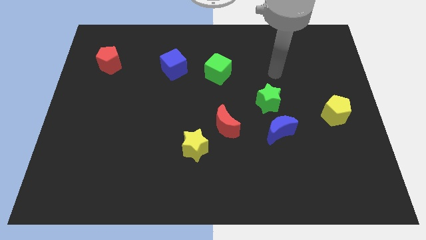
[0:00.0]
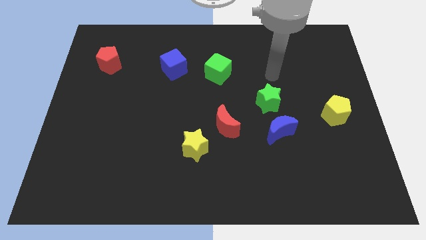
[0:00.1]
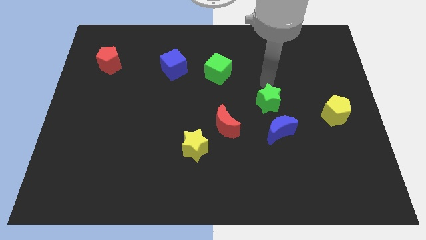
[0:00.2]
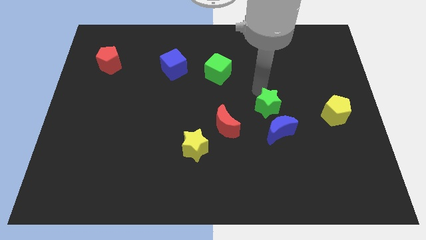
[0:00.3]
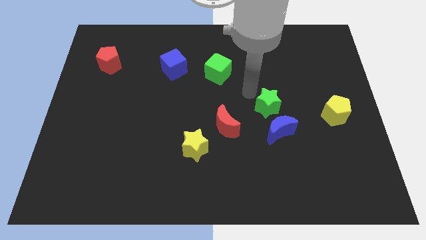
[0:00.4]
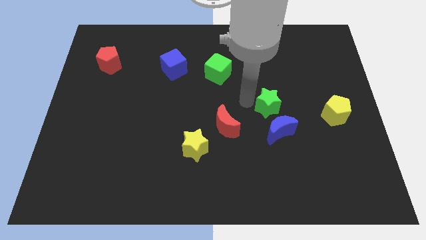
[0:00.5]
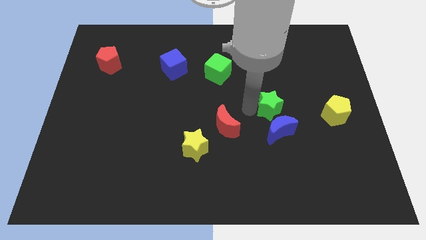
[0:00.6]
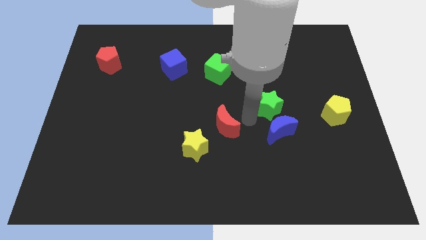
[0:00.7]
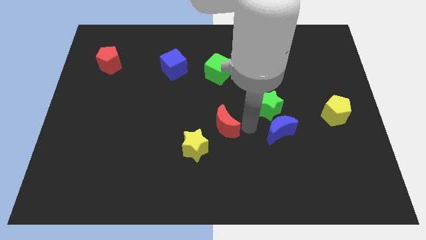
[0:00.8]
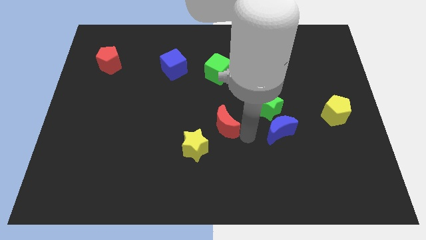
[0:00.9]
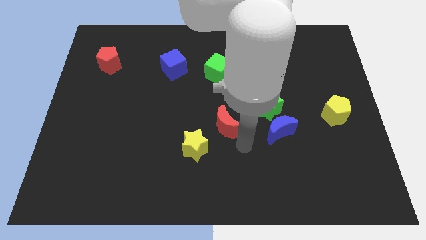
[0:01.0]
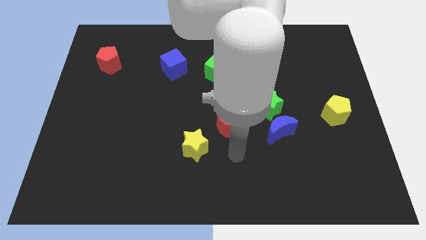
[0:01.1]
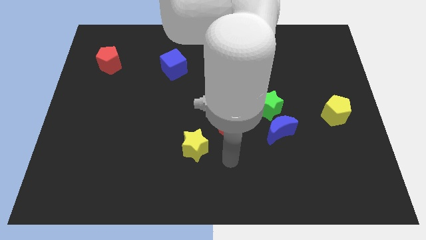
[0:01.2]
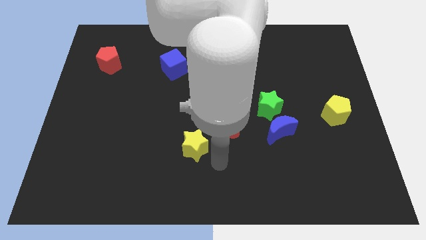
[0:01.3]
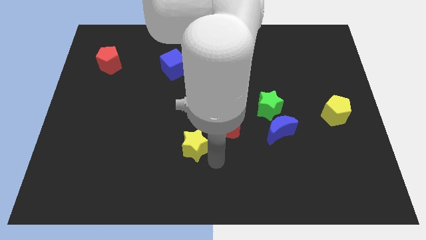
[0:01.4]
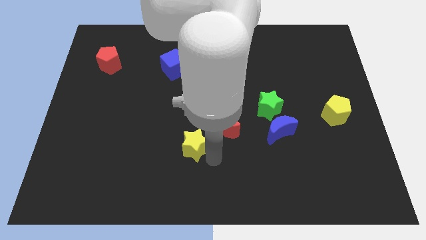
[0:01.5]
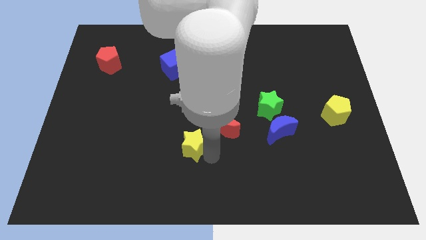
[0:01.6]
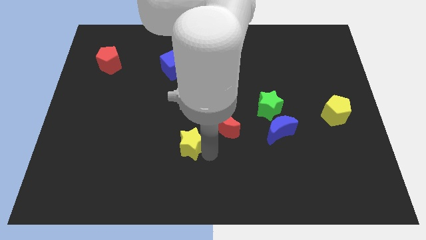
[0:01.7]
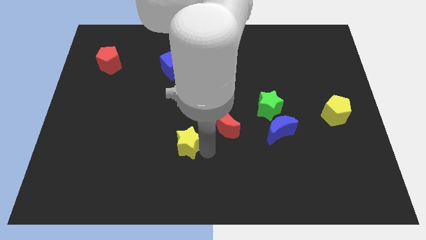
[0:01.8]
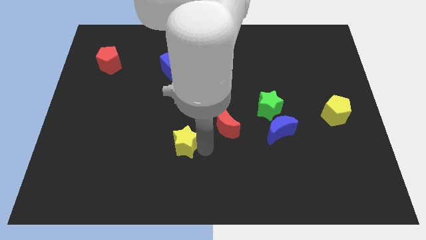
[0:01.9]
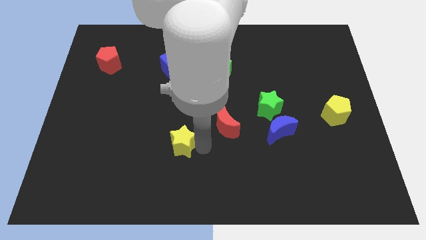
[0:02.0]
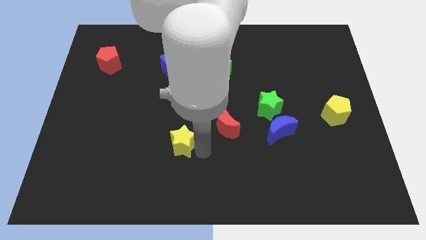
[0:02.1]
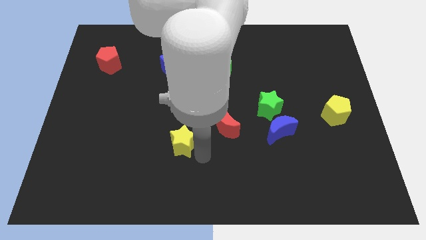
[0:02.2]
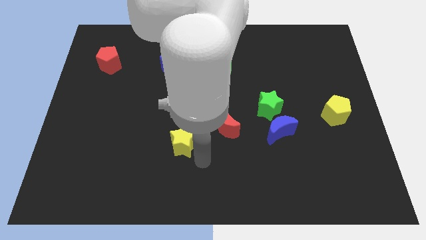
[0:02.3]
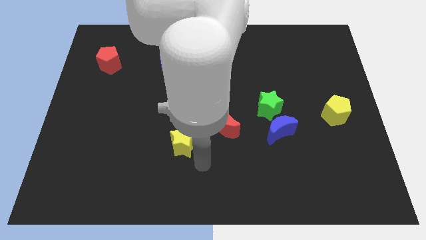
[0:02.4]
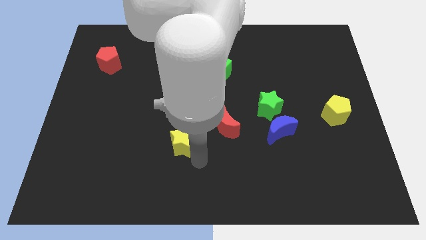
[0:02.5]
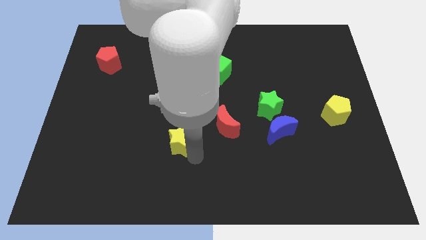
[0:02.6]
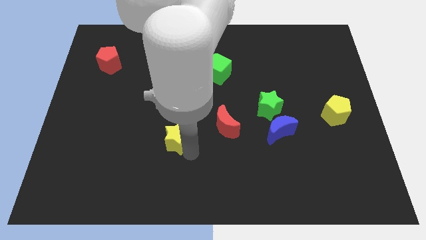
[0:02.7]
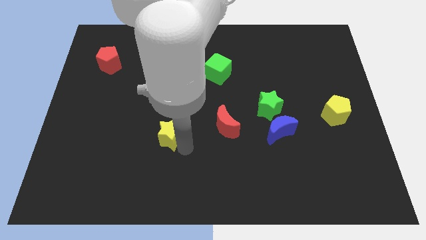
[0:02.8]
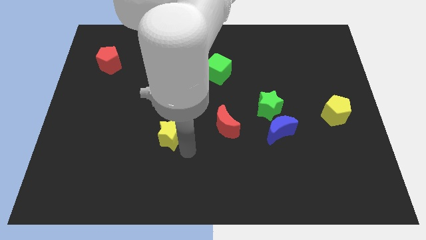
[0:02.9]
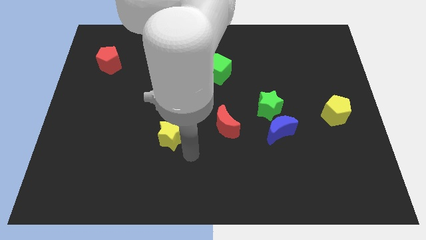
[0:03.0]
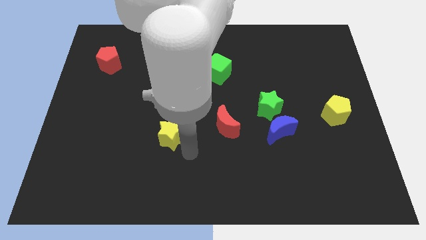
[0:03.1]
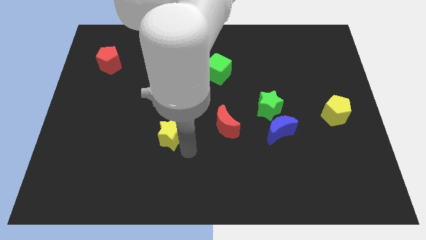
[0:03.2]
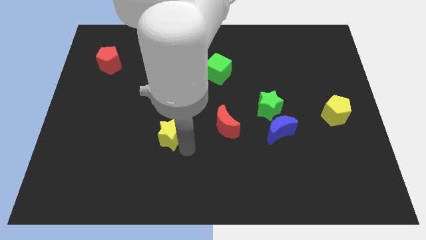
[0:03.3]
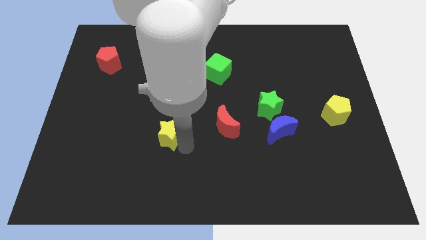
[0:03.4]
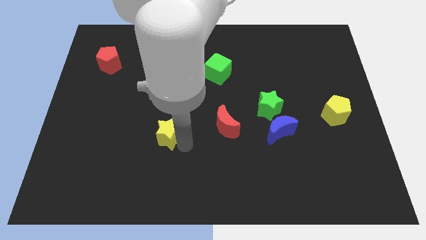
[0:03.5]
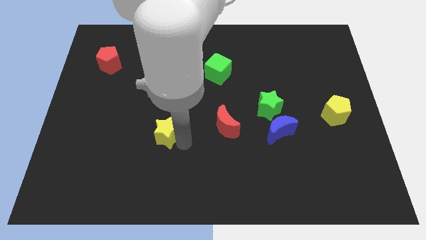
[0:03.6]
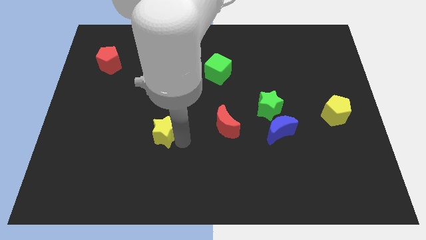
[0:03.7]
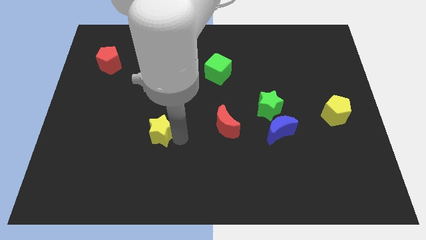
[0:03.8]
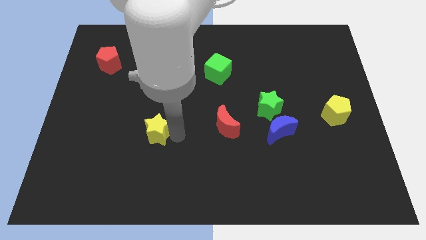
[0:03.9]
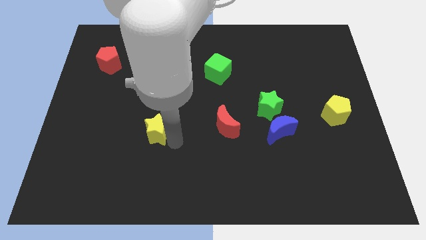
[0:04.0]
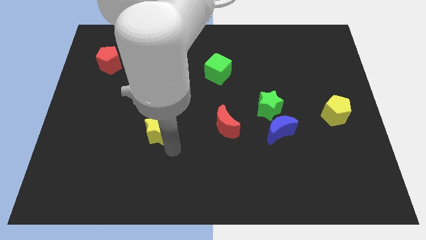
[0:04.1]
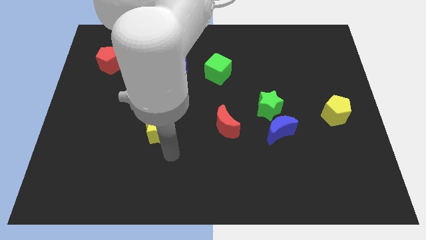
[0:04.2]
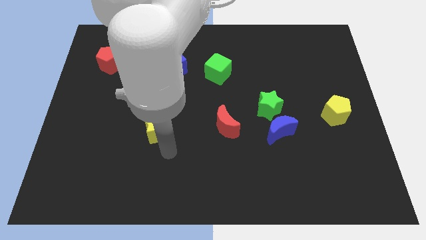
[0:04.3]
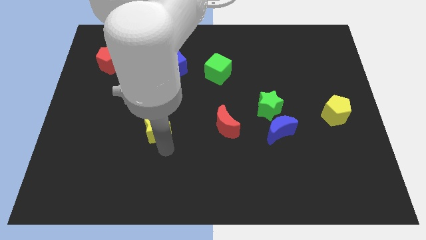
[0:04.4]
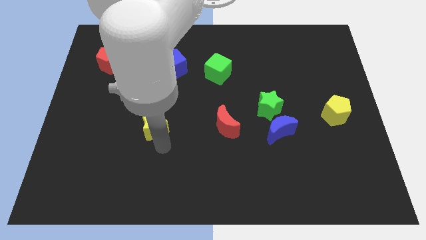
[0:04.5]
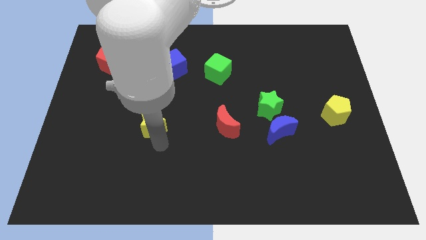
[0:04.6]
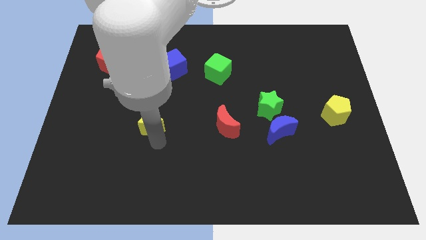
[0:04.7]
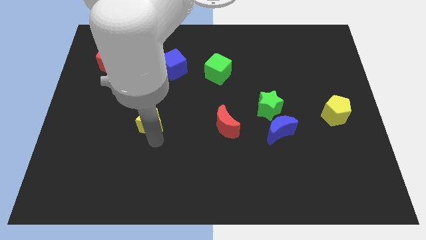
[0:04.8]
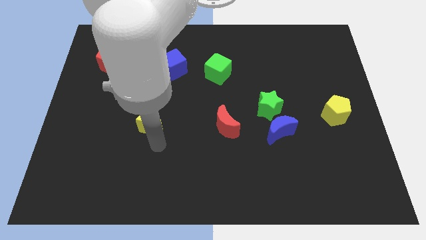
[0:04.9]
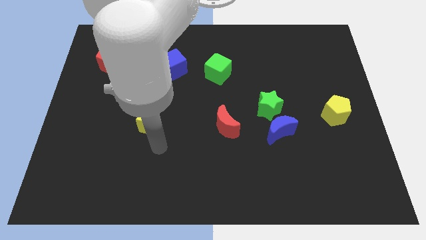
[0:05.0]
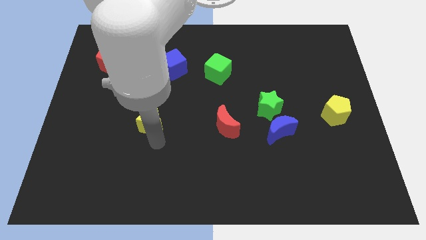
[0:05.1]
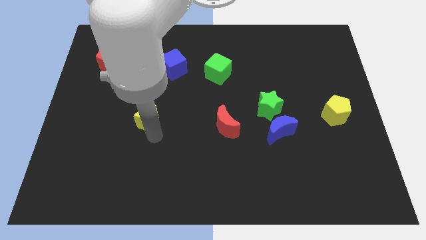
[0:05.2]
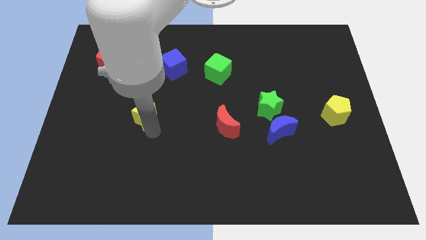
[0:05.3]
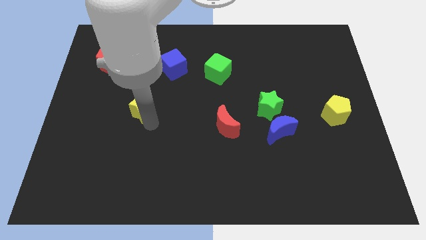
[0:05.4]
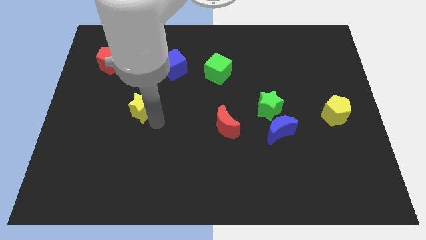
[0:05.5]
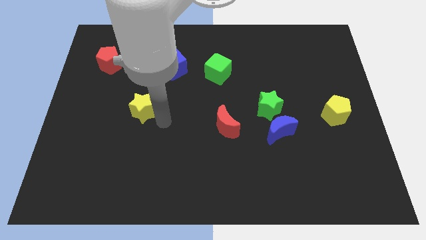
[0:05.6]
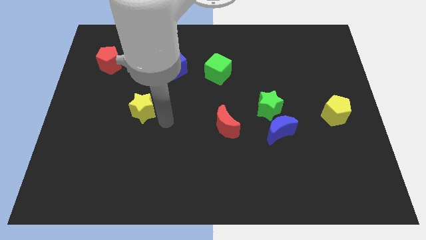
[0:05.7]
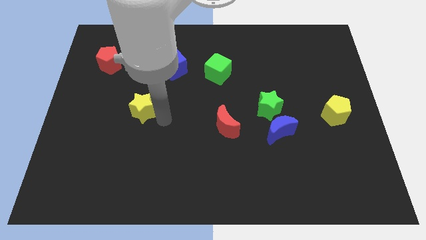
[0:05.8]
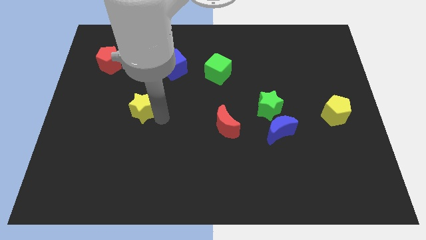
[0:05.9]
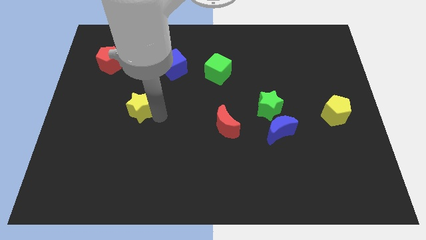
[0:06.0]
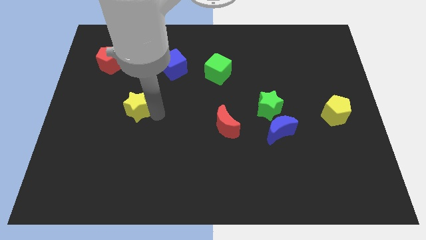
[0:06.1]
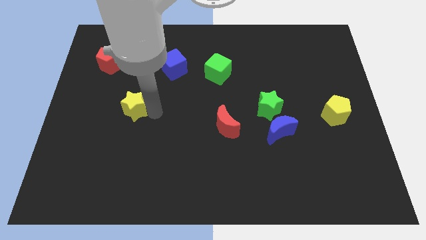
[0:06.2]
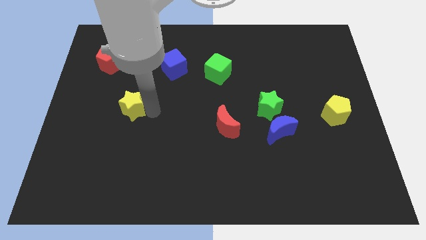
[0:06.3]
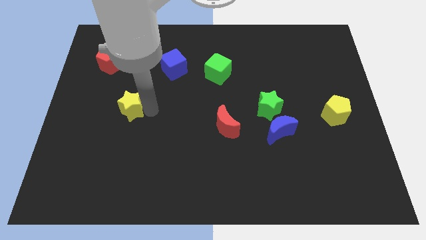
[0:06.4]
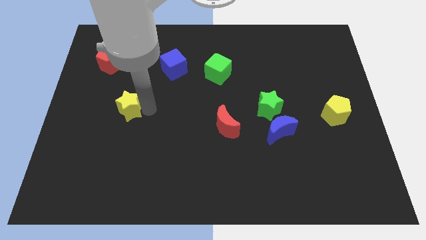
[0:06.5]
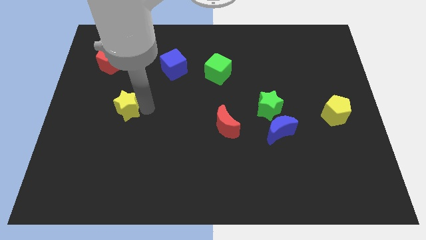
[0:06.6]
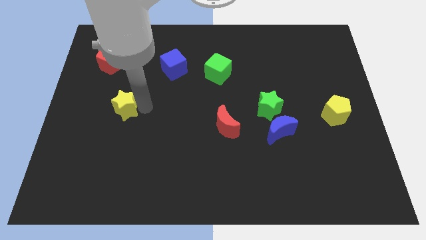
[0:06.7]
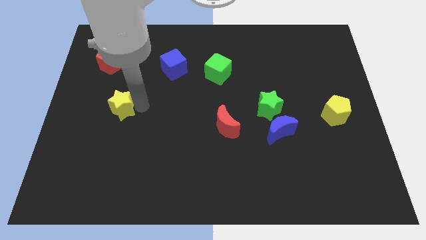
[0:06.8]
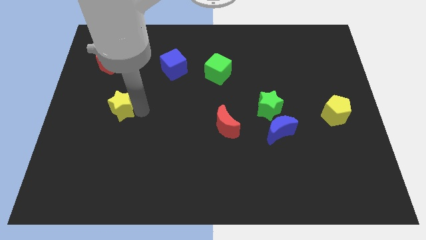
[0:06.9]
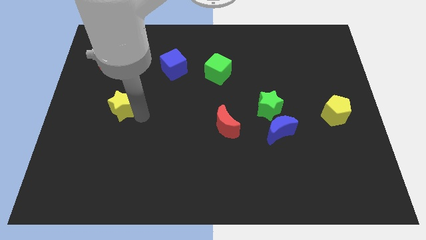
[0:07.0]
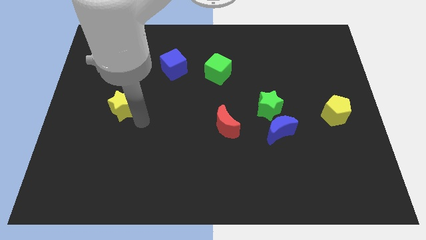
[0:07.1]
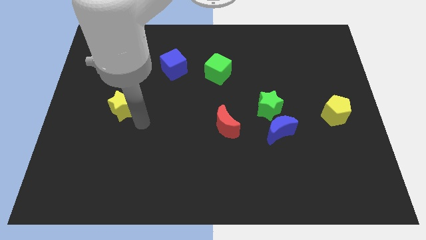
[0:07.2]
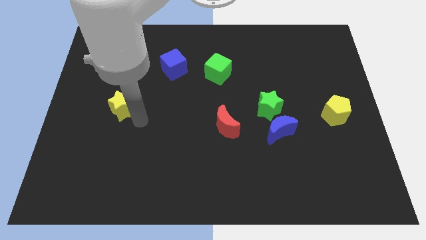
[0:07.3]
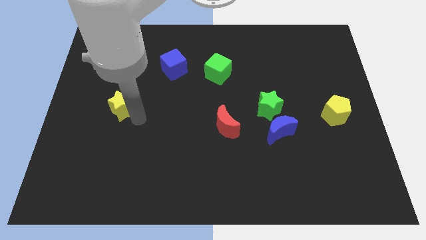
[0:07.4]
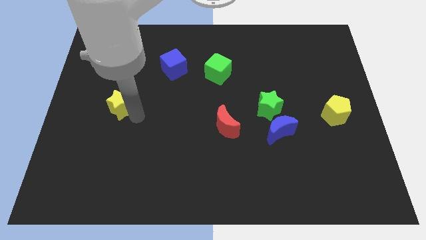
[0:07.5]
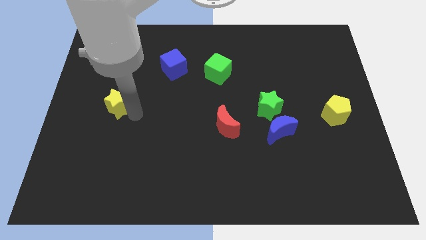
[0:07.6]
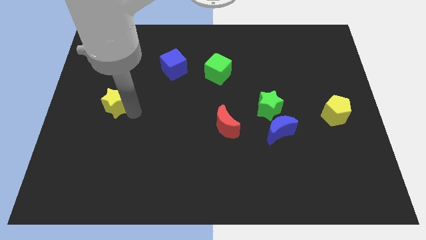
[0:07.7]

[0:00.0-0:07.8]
move the yellow star below the red pentagon
